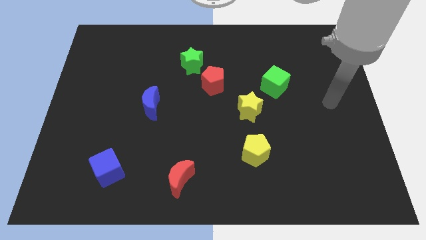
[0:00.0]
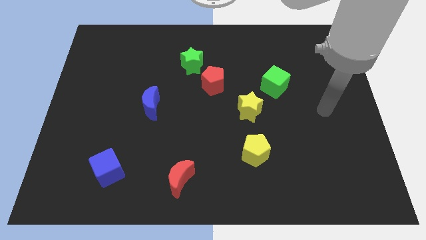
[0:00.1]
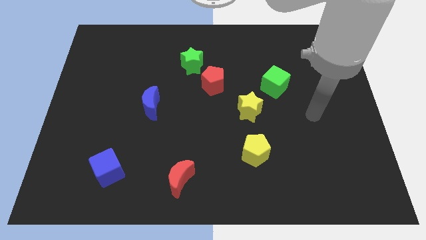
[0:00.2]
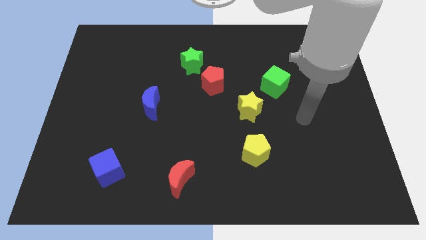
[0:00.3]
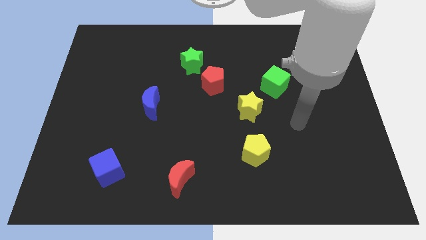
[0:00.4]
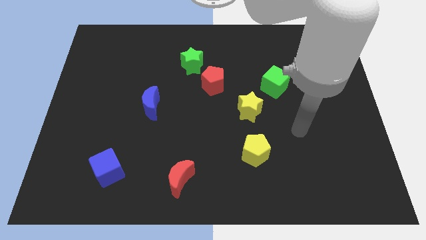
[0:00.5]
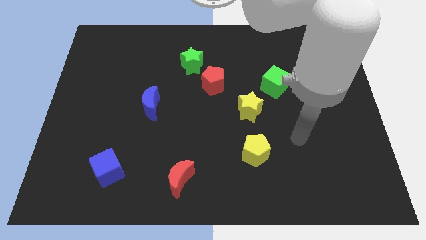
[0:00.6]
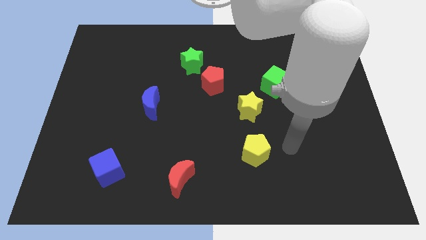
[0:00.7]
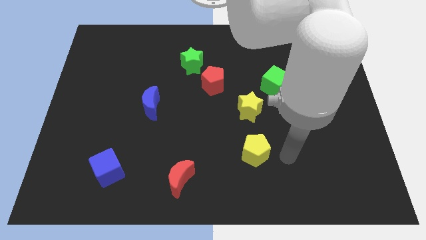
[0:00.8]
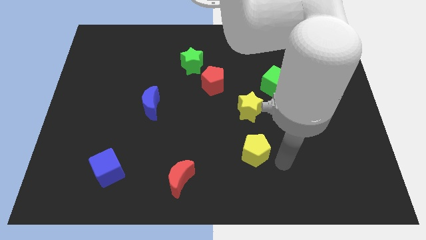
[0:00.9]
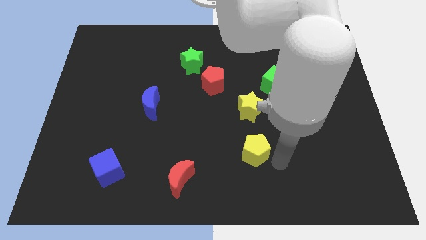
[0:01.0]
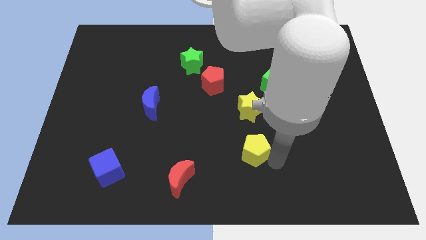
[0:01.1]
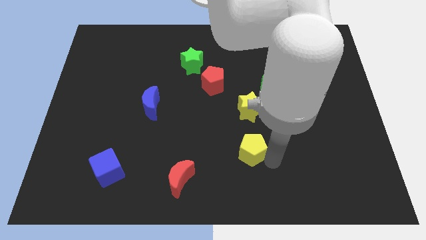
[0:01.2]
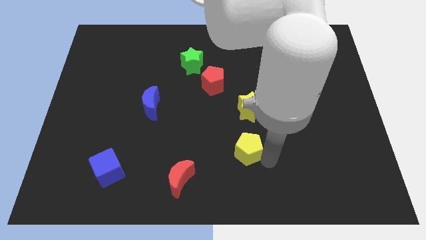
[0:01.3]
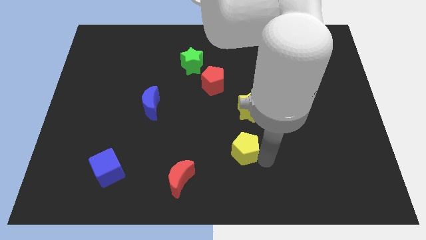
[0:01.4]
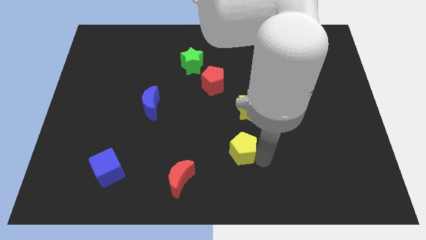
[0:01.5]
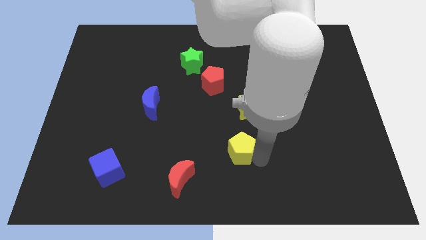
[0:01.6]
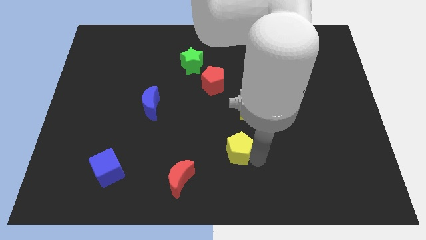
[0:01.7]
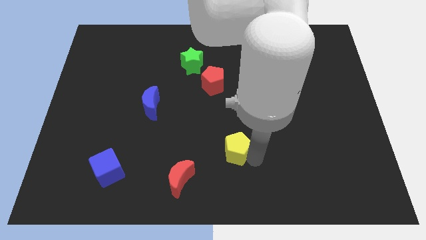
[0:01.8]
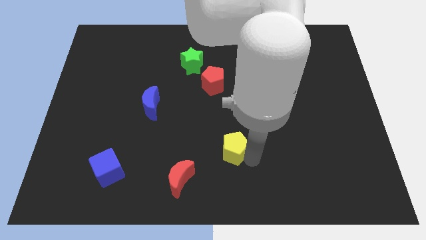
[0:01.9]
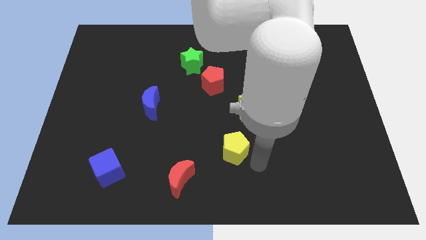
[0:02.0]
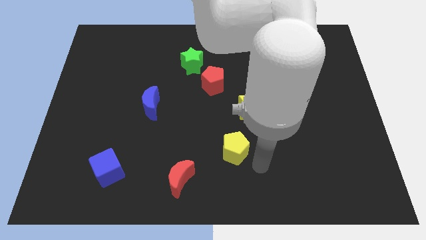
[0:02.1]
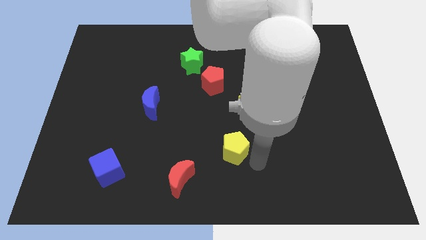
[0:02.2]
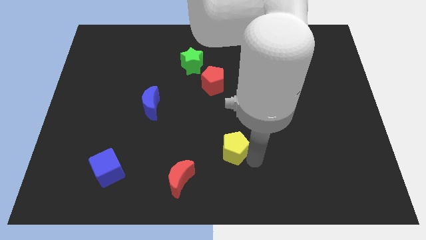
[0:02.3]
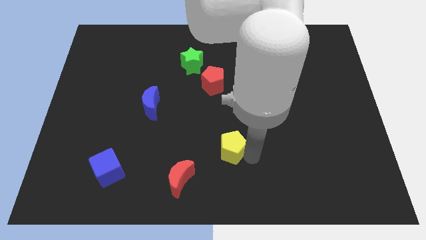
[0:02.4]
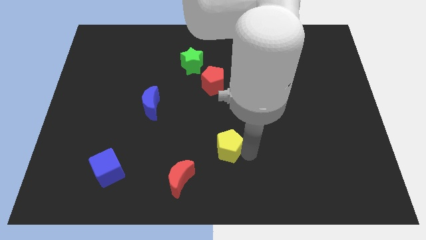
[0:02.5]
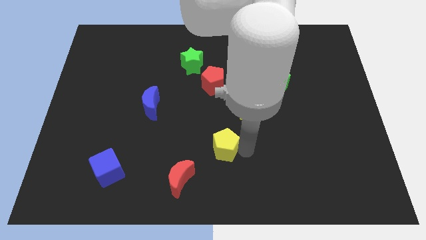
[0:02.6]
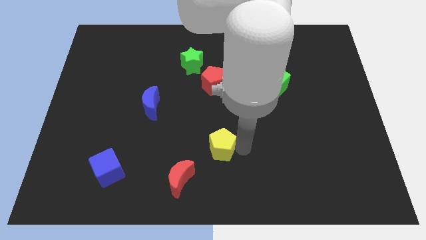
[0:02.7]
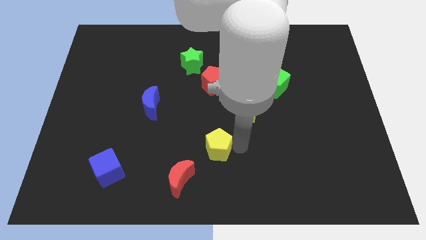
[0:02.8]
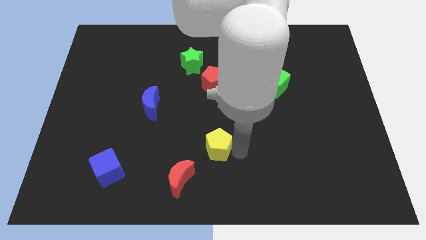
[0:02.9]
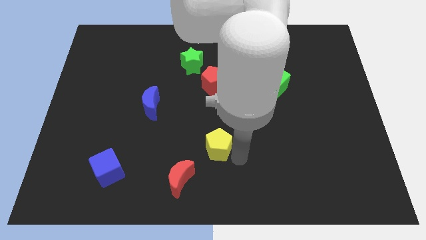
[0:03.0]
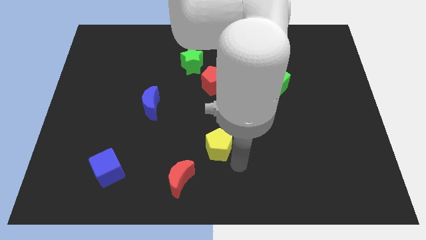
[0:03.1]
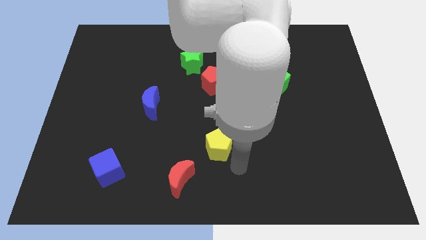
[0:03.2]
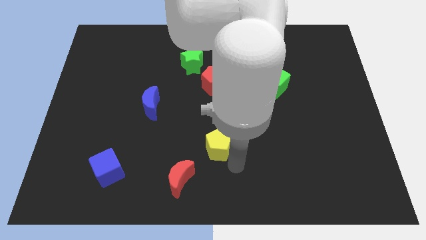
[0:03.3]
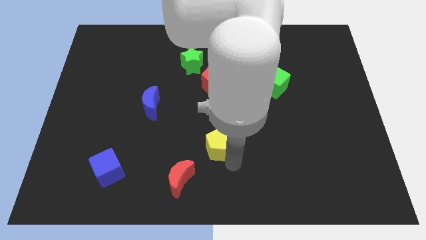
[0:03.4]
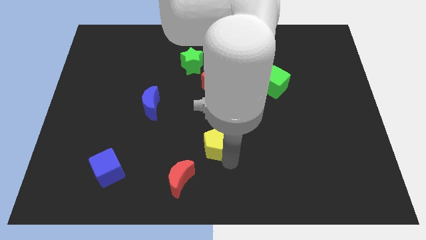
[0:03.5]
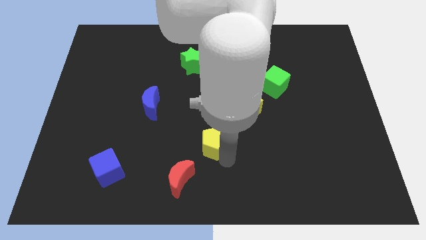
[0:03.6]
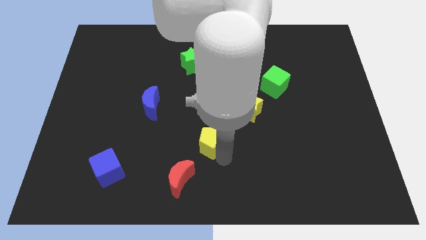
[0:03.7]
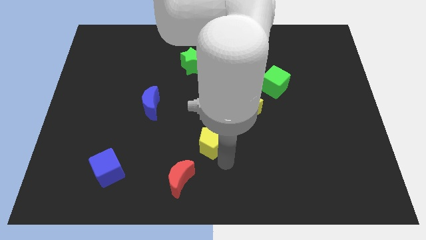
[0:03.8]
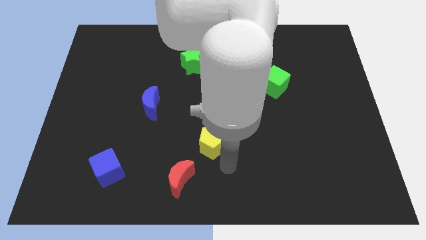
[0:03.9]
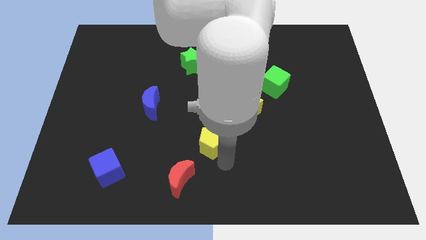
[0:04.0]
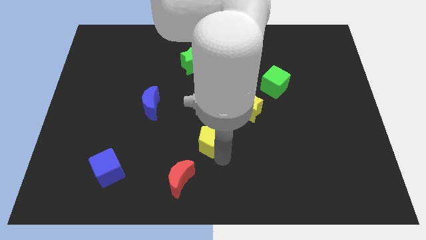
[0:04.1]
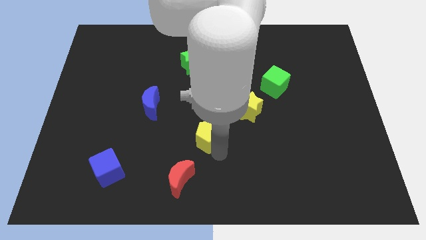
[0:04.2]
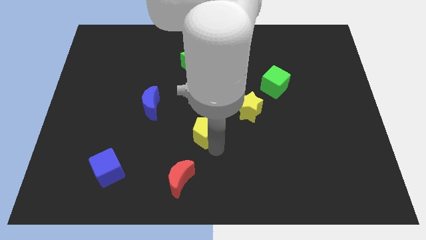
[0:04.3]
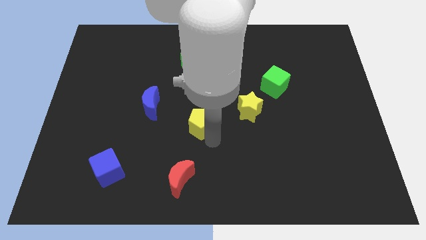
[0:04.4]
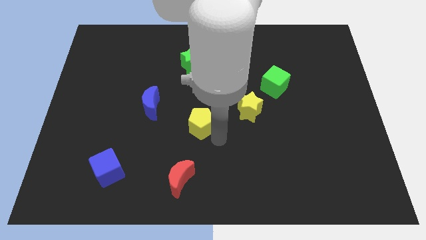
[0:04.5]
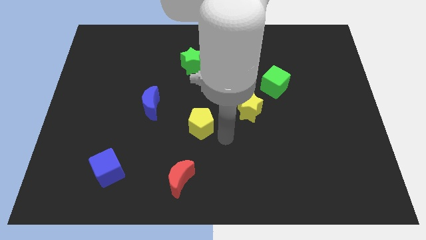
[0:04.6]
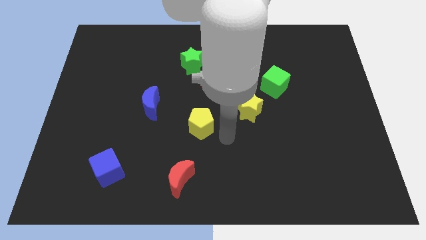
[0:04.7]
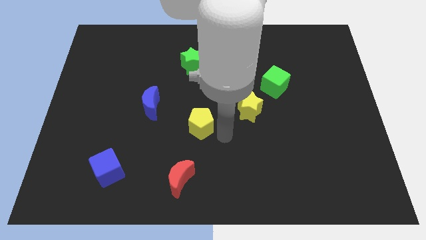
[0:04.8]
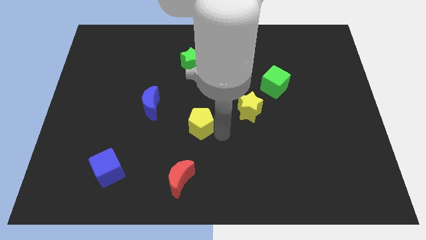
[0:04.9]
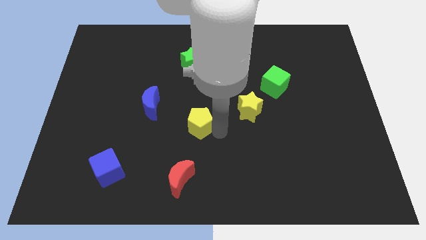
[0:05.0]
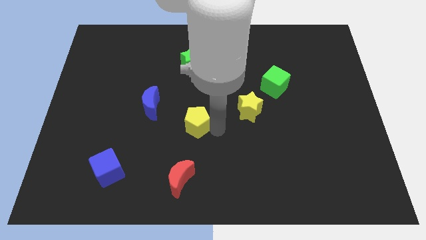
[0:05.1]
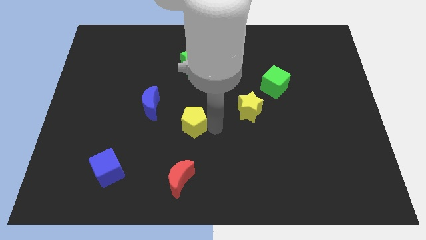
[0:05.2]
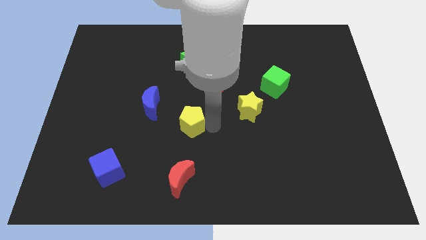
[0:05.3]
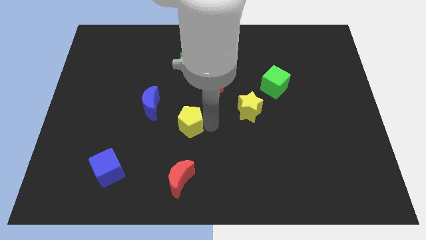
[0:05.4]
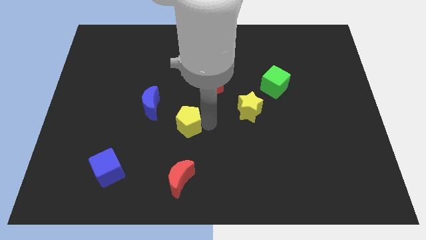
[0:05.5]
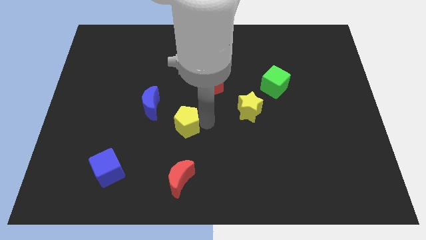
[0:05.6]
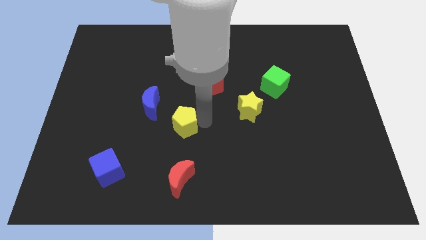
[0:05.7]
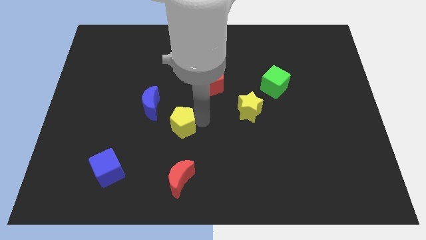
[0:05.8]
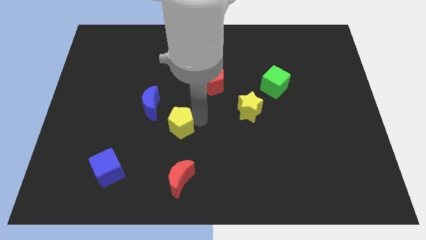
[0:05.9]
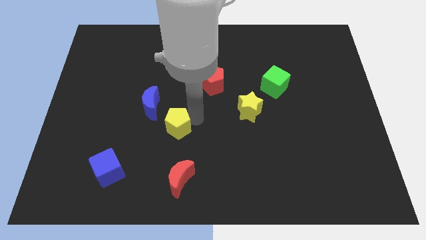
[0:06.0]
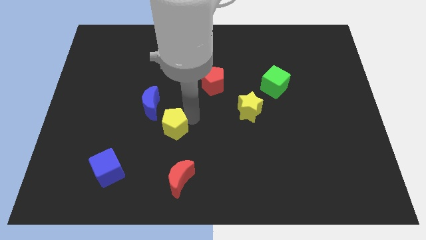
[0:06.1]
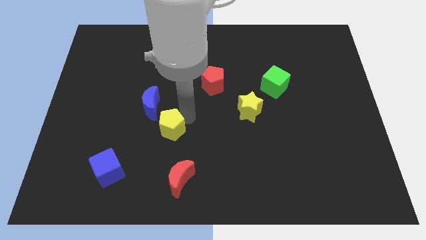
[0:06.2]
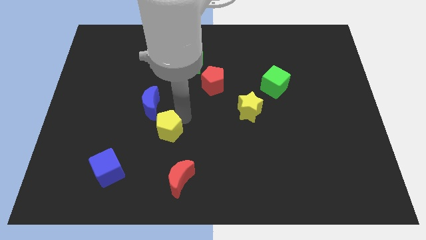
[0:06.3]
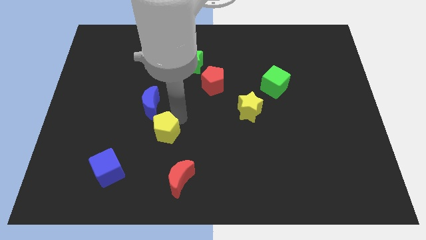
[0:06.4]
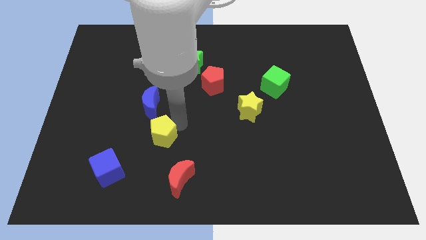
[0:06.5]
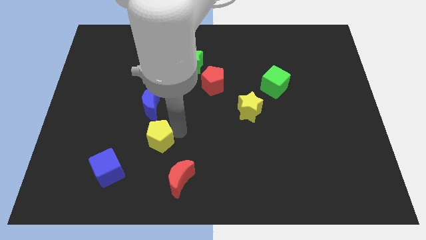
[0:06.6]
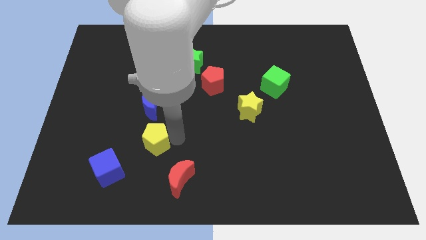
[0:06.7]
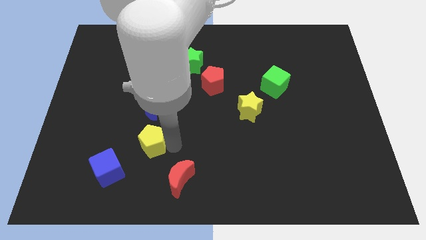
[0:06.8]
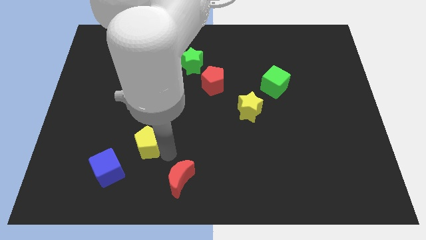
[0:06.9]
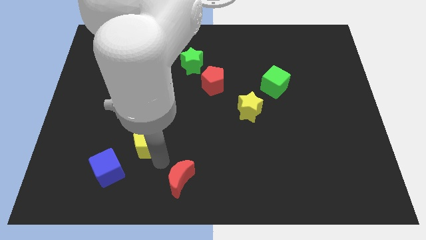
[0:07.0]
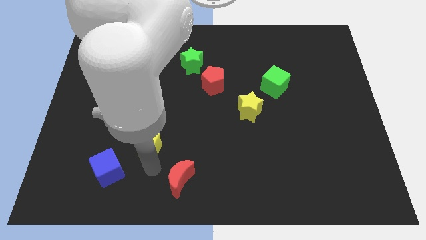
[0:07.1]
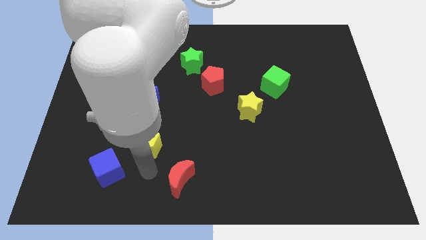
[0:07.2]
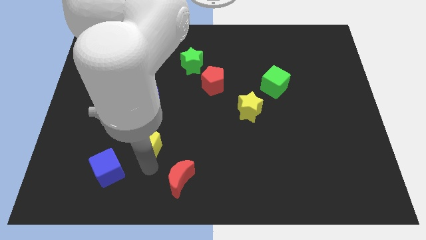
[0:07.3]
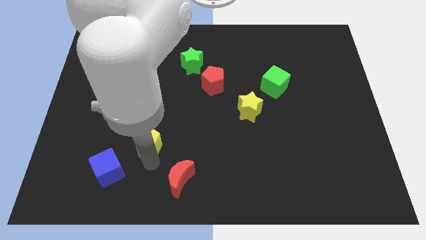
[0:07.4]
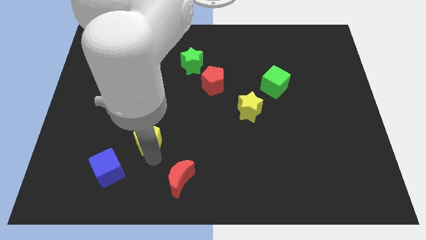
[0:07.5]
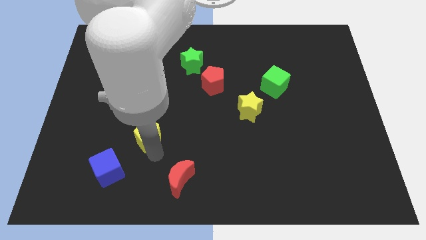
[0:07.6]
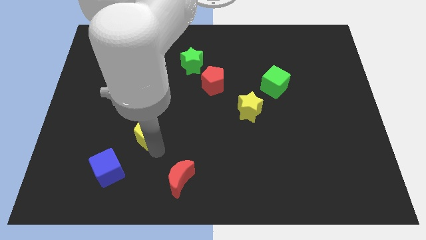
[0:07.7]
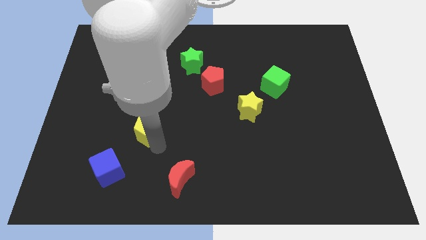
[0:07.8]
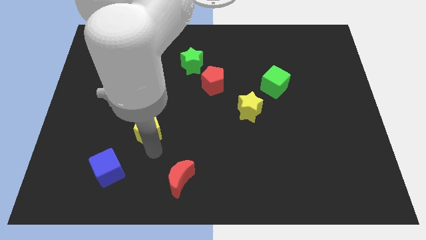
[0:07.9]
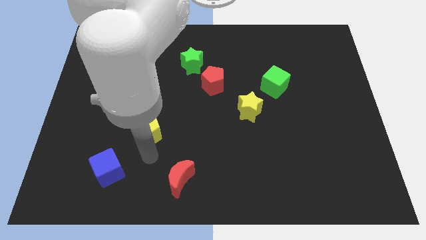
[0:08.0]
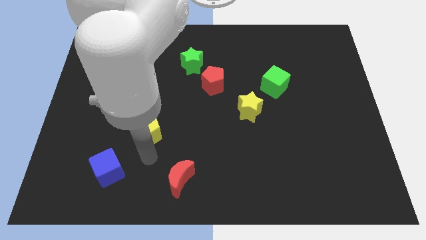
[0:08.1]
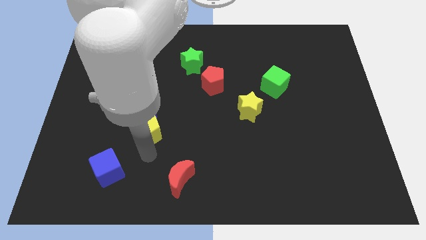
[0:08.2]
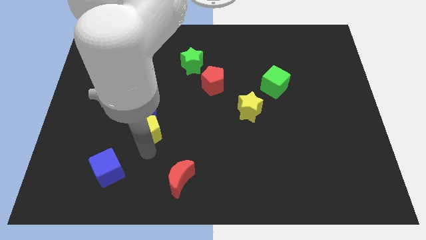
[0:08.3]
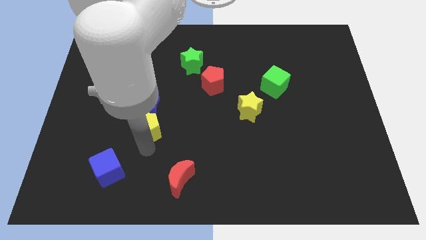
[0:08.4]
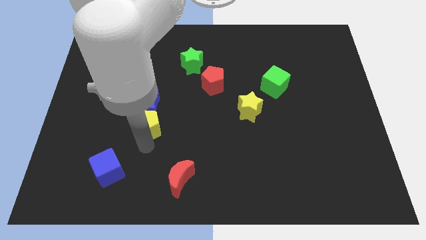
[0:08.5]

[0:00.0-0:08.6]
slide the yellow pentagon towards the blue moon
